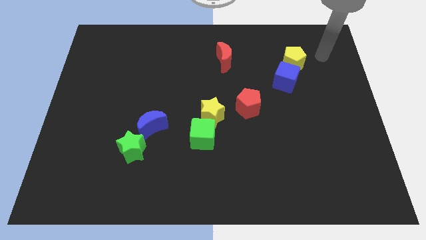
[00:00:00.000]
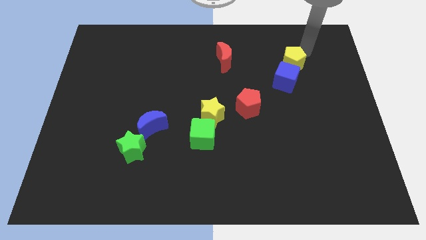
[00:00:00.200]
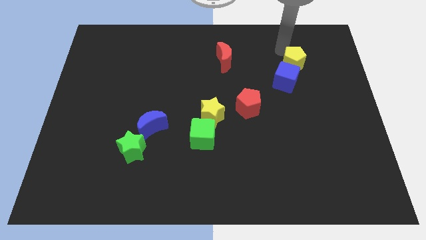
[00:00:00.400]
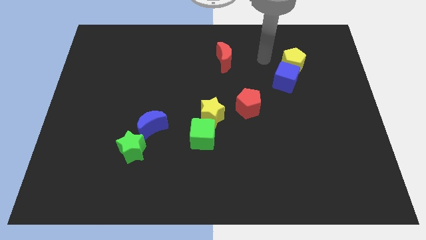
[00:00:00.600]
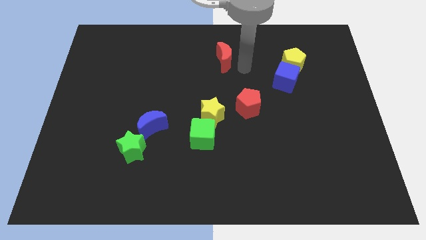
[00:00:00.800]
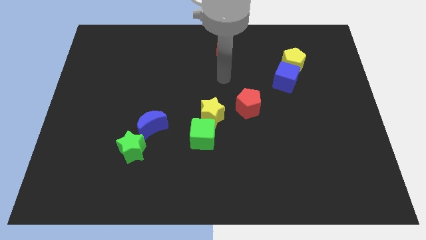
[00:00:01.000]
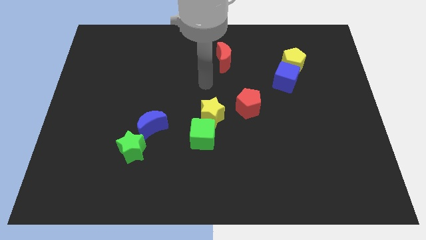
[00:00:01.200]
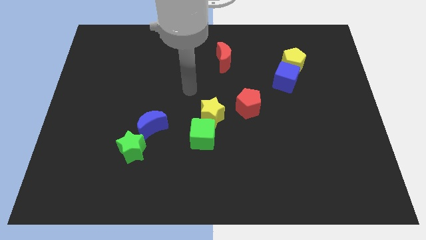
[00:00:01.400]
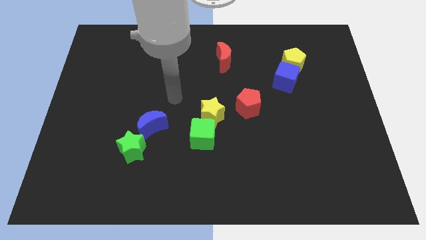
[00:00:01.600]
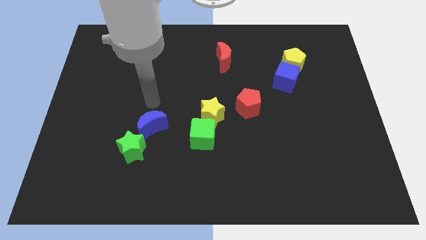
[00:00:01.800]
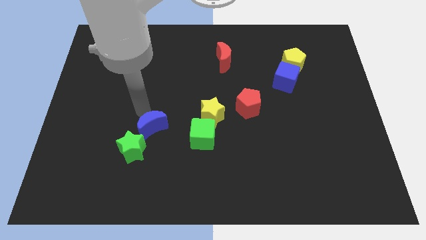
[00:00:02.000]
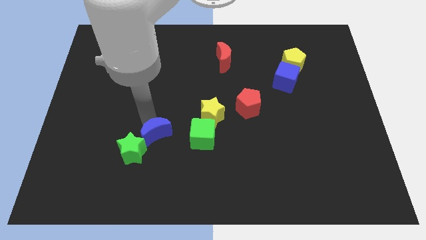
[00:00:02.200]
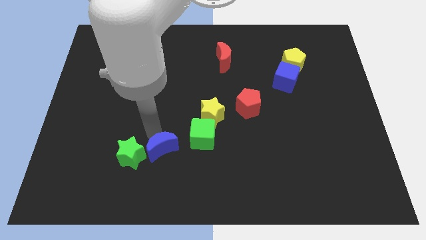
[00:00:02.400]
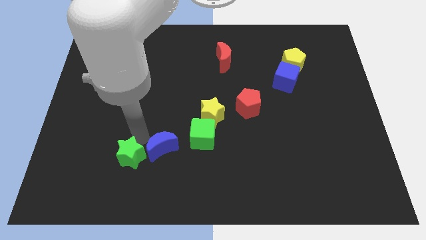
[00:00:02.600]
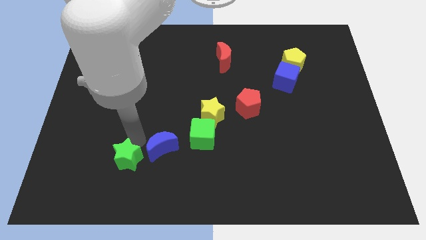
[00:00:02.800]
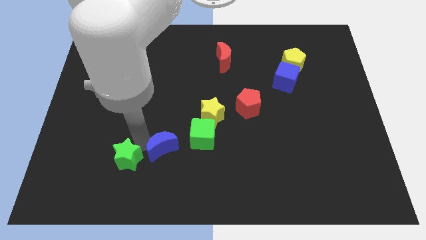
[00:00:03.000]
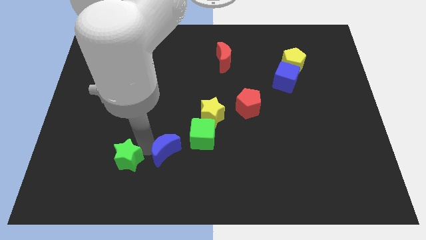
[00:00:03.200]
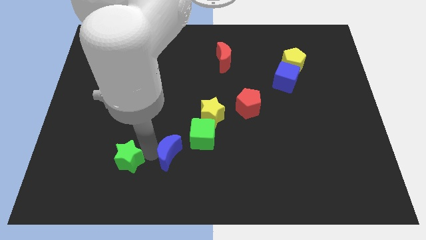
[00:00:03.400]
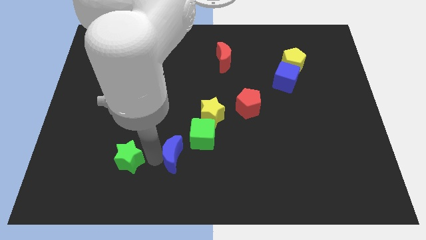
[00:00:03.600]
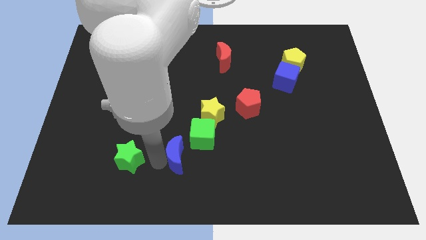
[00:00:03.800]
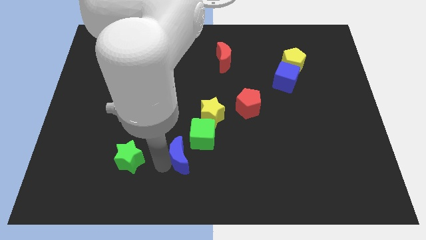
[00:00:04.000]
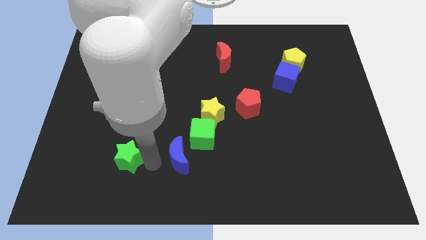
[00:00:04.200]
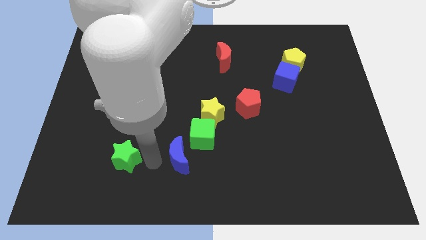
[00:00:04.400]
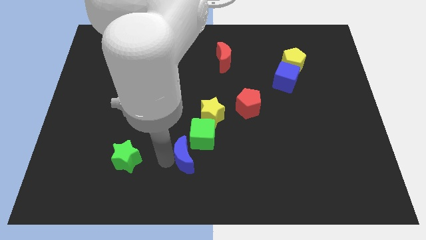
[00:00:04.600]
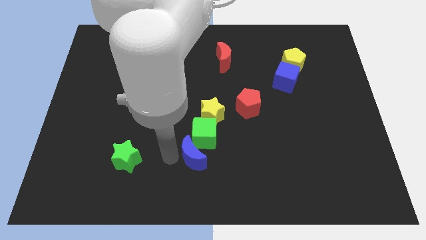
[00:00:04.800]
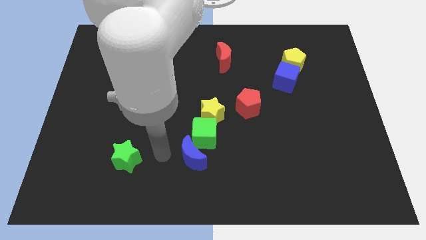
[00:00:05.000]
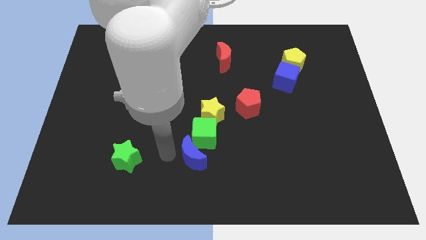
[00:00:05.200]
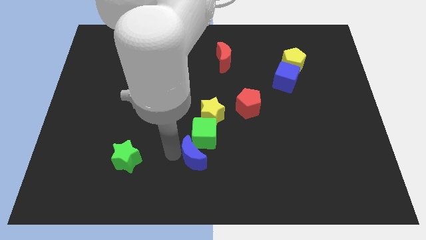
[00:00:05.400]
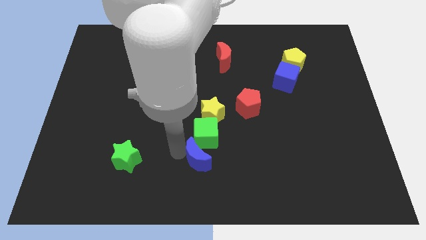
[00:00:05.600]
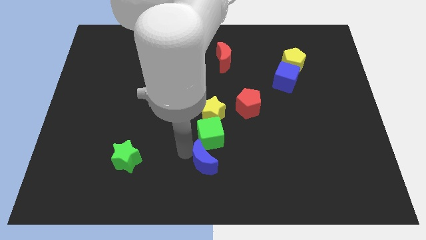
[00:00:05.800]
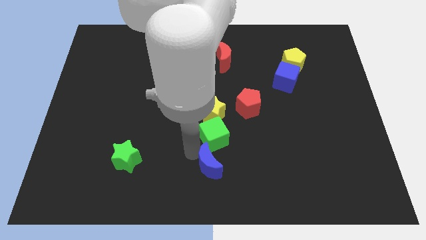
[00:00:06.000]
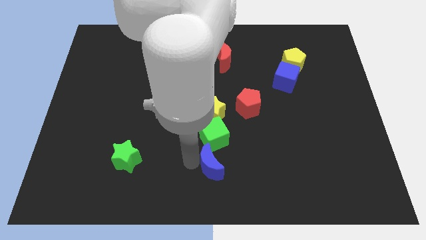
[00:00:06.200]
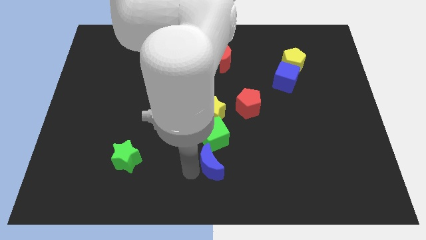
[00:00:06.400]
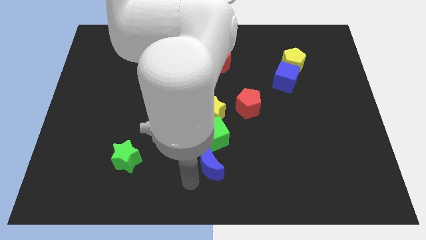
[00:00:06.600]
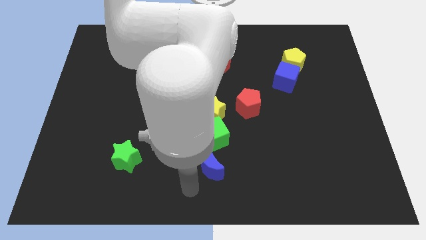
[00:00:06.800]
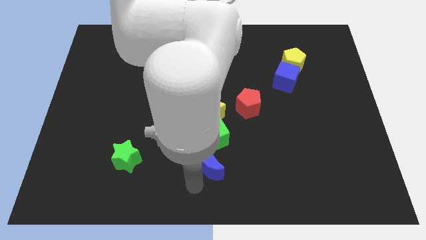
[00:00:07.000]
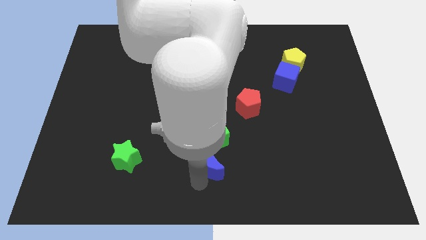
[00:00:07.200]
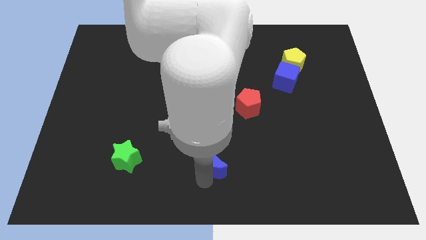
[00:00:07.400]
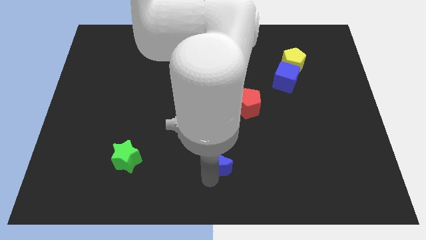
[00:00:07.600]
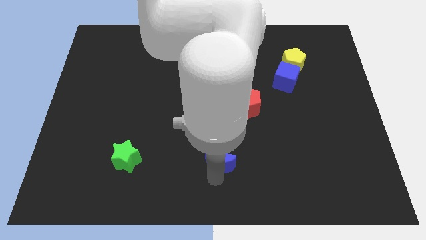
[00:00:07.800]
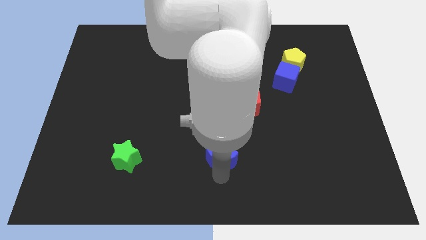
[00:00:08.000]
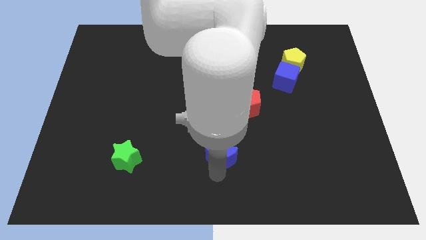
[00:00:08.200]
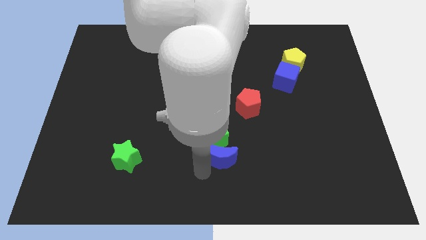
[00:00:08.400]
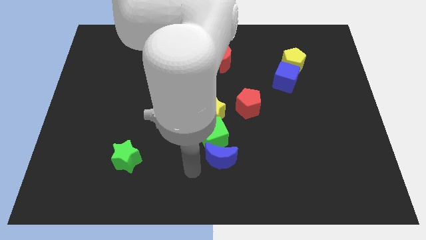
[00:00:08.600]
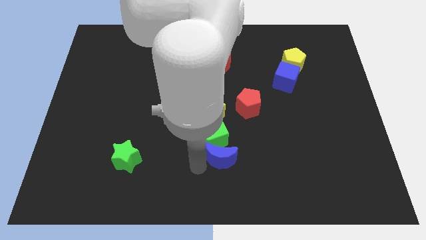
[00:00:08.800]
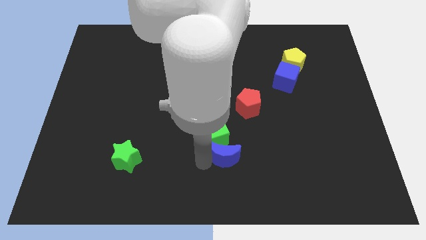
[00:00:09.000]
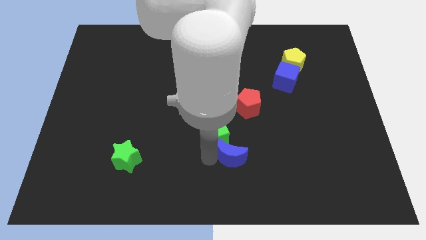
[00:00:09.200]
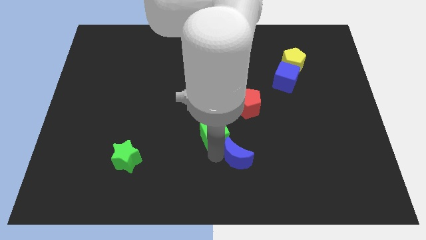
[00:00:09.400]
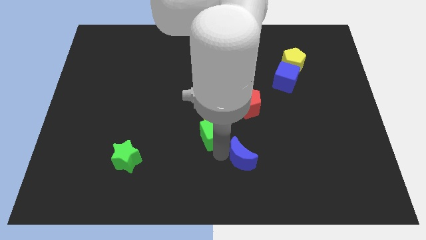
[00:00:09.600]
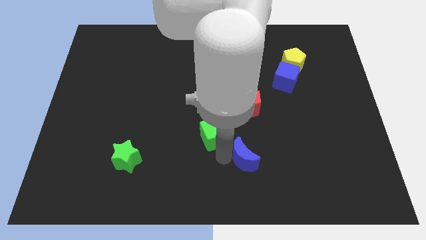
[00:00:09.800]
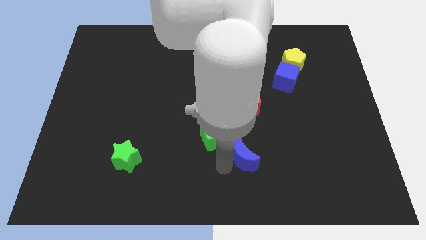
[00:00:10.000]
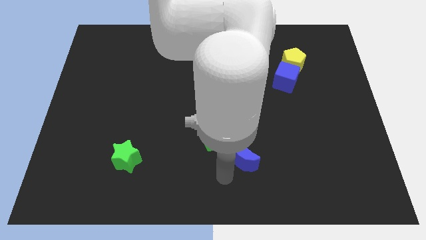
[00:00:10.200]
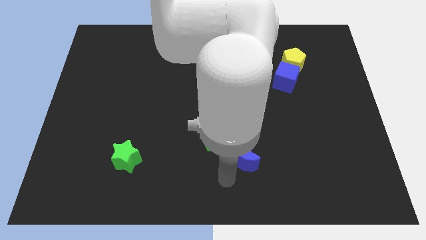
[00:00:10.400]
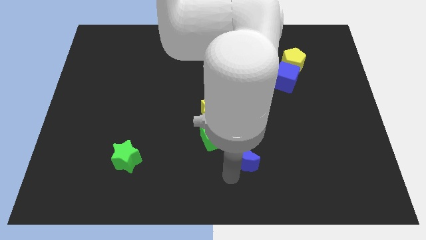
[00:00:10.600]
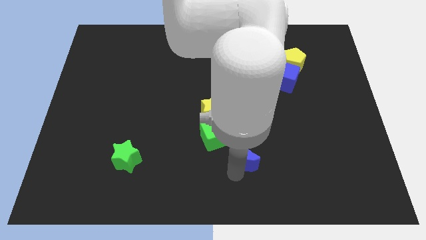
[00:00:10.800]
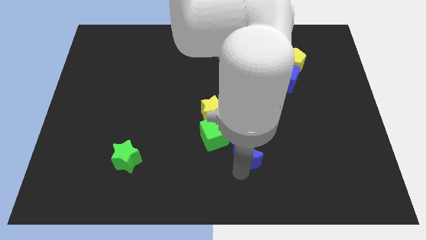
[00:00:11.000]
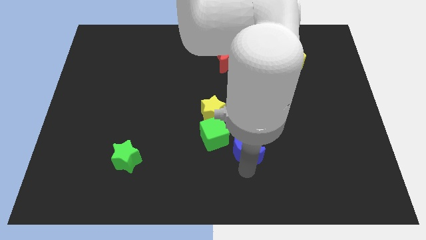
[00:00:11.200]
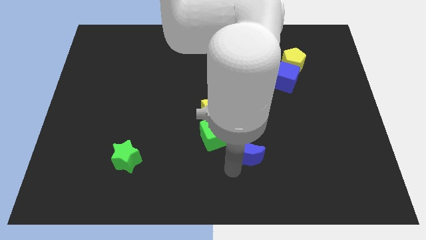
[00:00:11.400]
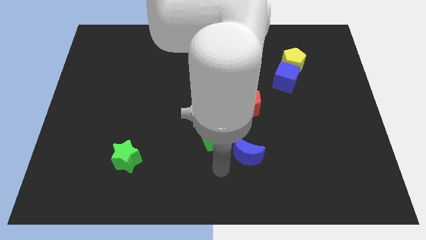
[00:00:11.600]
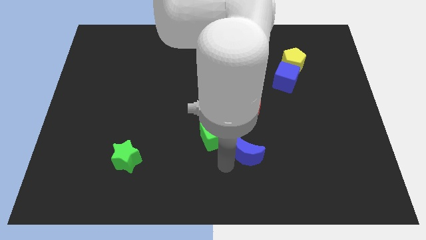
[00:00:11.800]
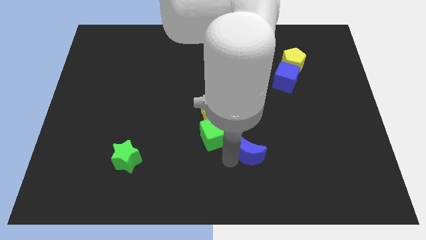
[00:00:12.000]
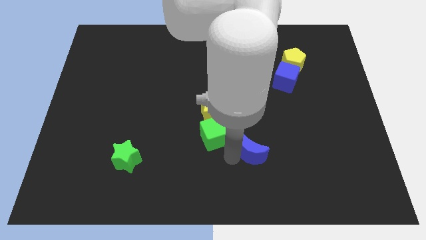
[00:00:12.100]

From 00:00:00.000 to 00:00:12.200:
slide the blue moon right

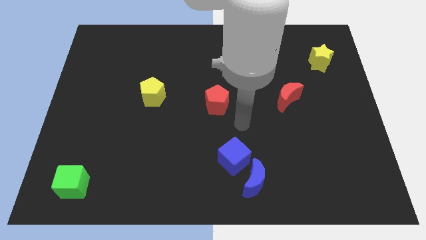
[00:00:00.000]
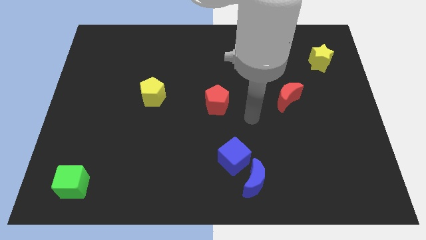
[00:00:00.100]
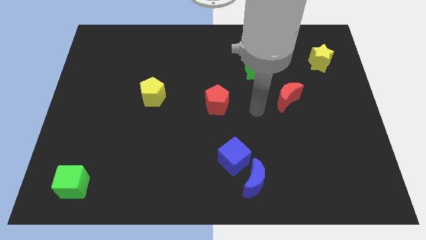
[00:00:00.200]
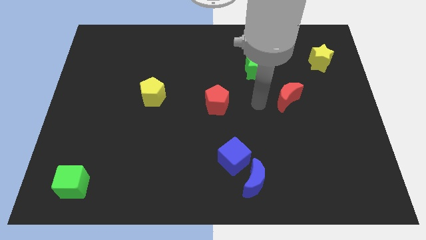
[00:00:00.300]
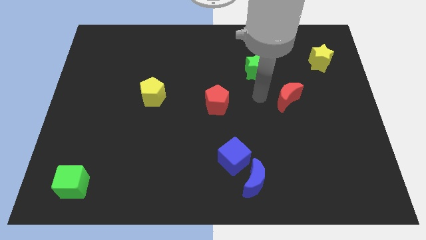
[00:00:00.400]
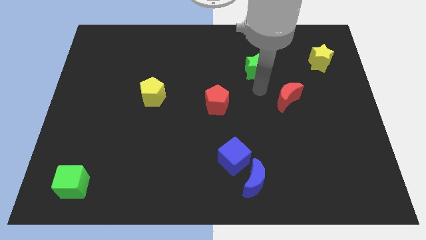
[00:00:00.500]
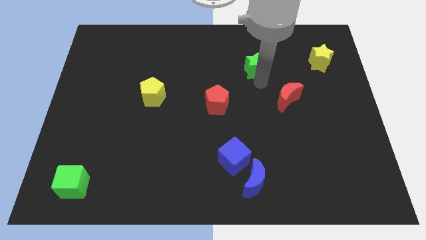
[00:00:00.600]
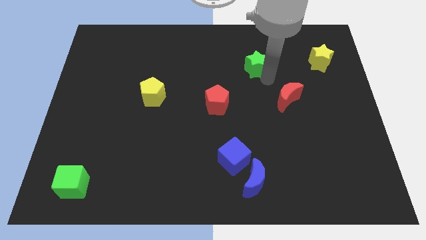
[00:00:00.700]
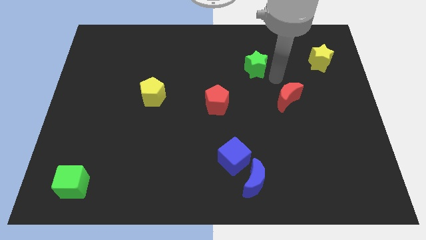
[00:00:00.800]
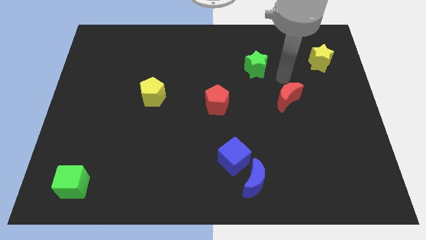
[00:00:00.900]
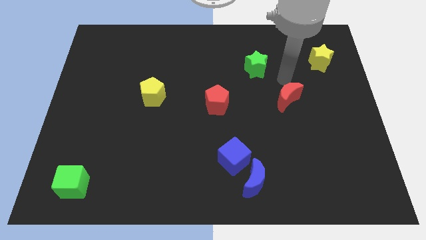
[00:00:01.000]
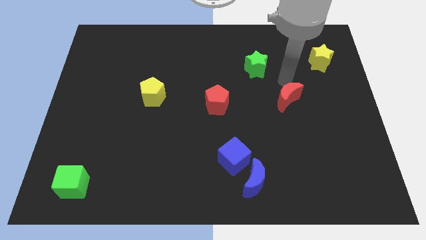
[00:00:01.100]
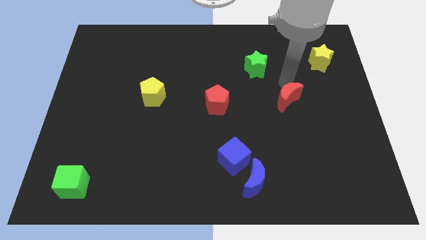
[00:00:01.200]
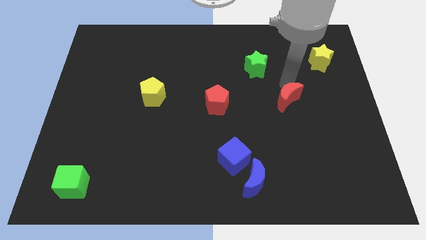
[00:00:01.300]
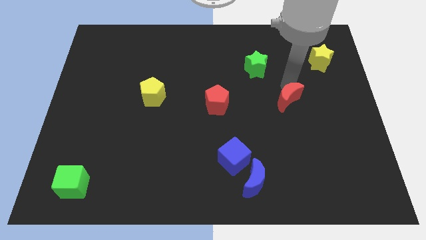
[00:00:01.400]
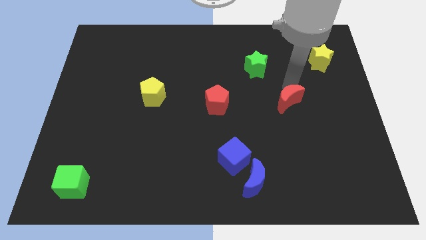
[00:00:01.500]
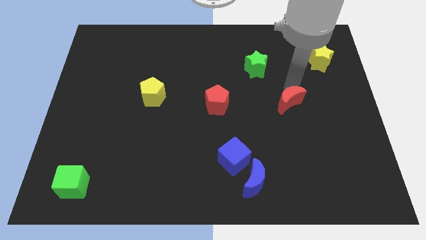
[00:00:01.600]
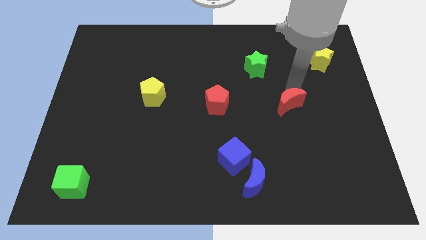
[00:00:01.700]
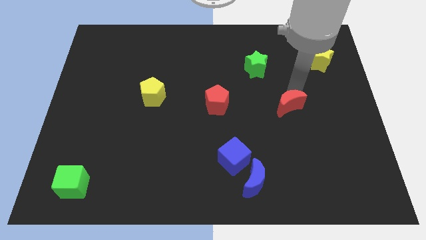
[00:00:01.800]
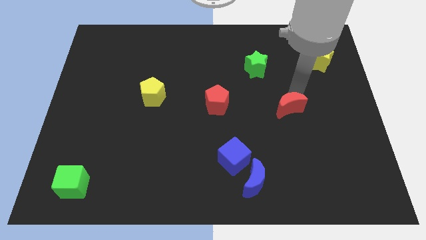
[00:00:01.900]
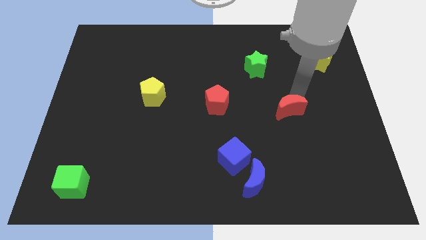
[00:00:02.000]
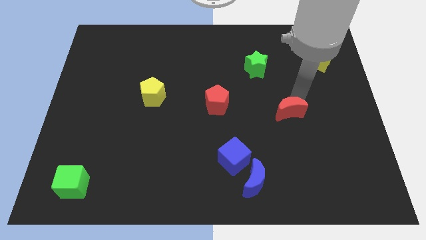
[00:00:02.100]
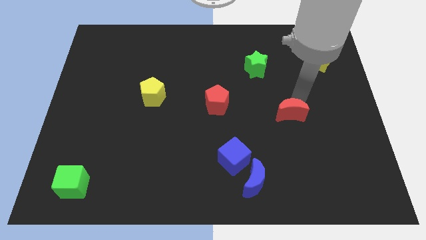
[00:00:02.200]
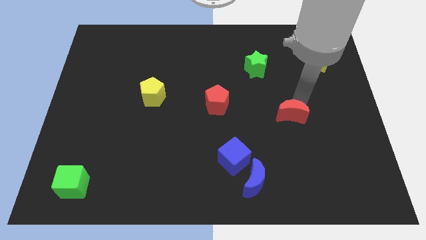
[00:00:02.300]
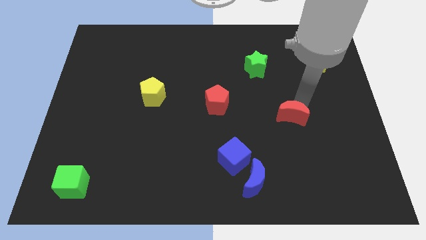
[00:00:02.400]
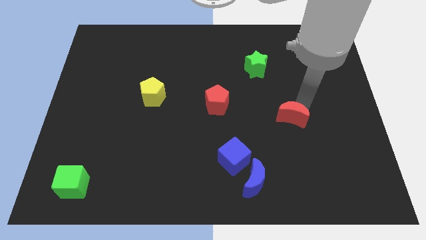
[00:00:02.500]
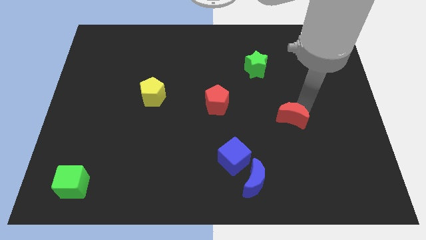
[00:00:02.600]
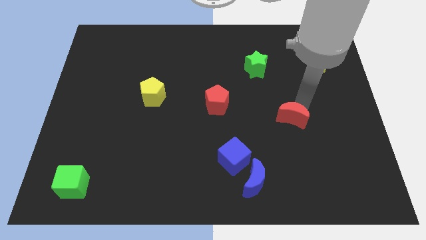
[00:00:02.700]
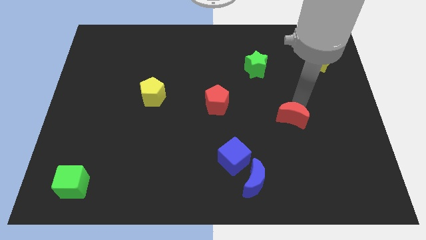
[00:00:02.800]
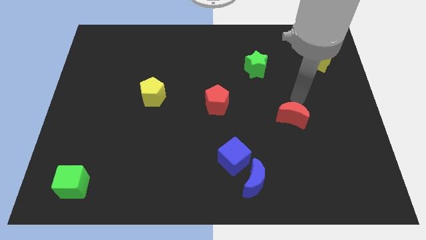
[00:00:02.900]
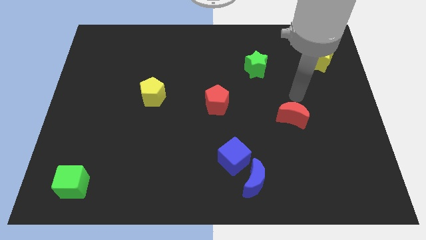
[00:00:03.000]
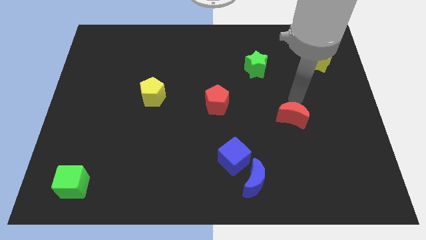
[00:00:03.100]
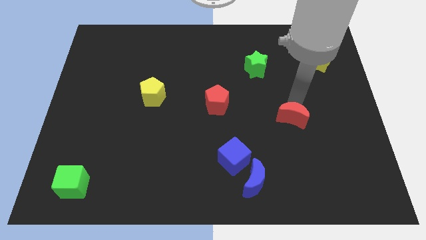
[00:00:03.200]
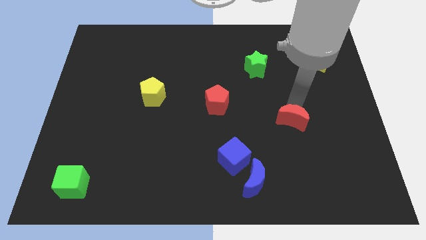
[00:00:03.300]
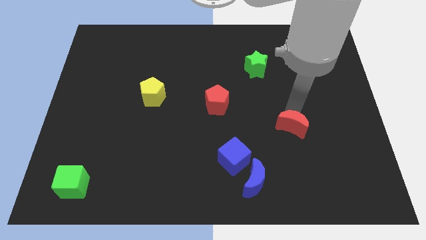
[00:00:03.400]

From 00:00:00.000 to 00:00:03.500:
slightly push the red moon down
